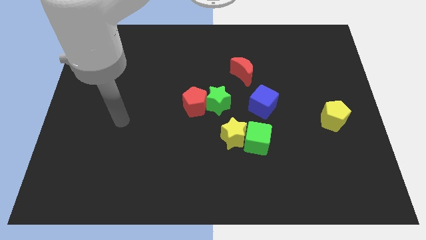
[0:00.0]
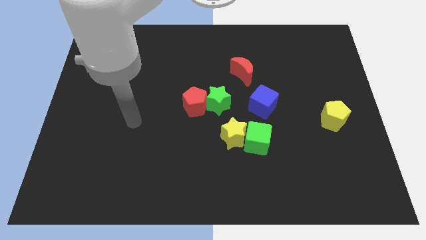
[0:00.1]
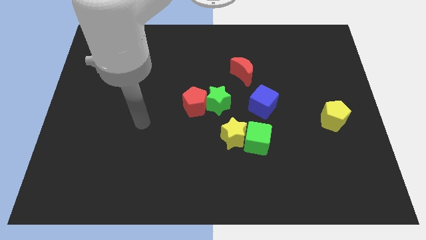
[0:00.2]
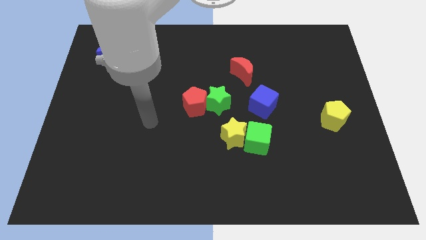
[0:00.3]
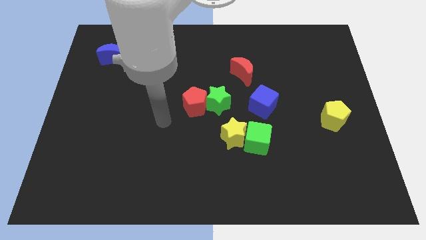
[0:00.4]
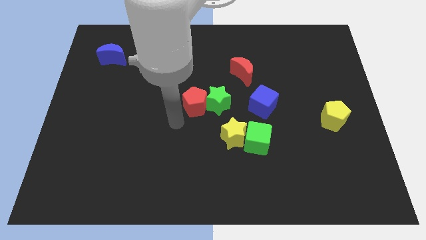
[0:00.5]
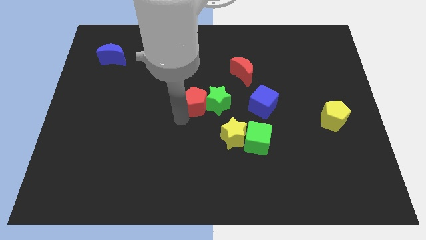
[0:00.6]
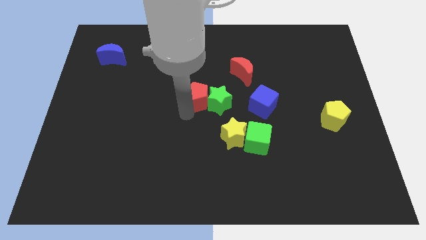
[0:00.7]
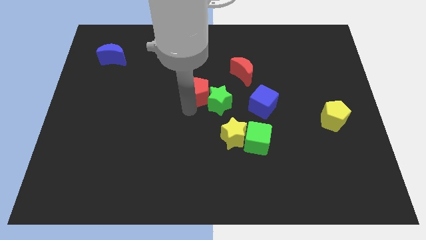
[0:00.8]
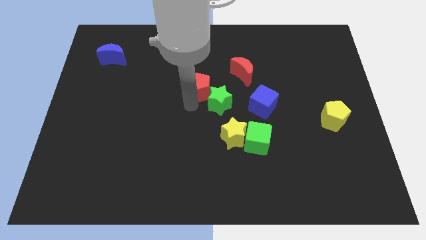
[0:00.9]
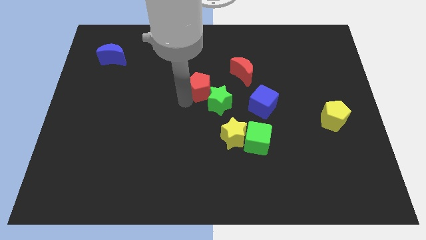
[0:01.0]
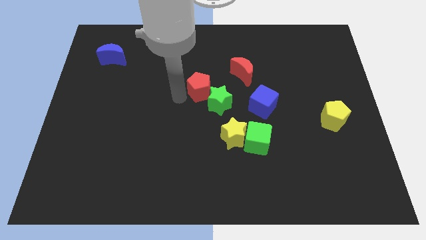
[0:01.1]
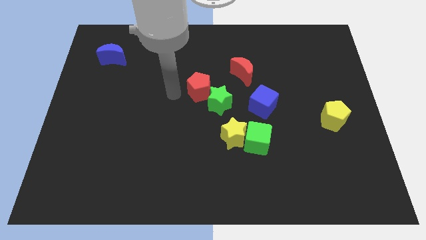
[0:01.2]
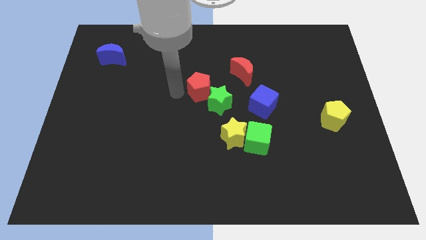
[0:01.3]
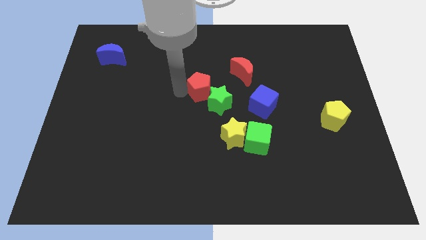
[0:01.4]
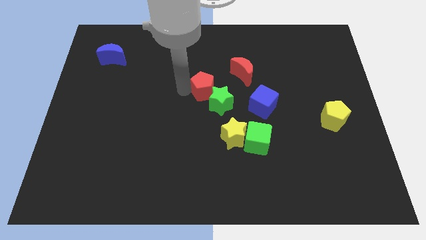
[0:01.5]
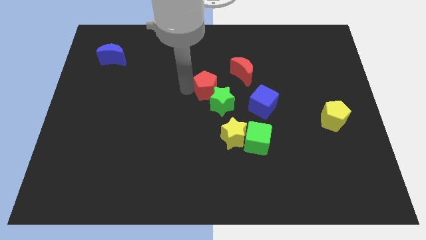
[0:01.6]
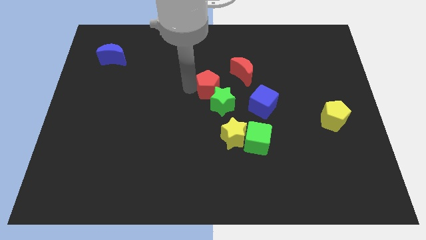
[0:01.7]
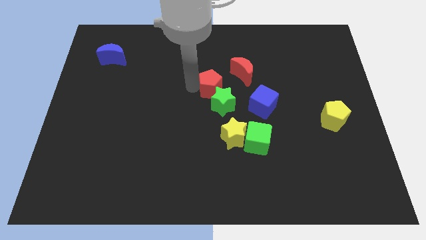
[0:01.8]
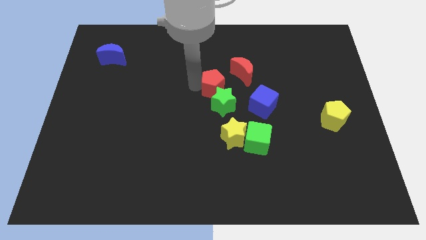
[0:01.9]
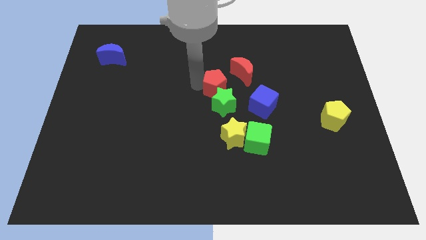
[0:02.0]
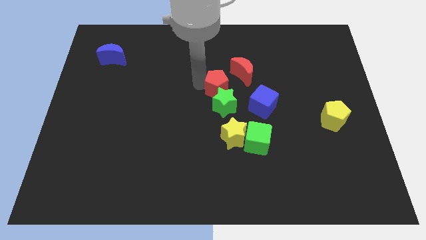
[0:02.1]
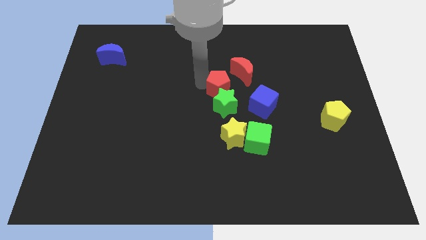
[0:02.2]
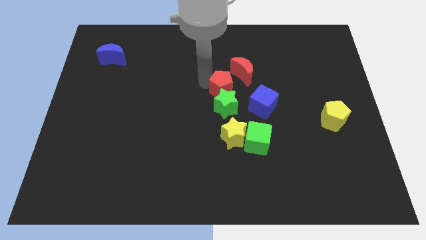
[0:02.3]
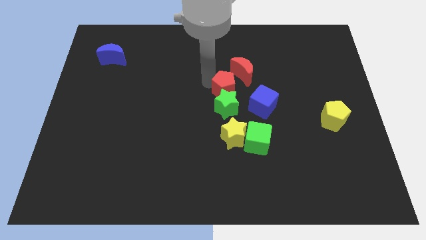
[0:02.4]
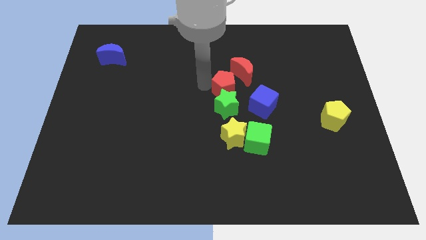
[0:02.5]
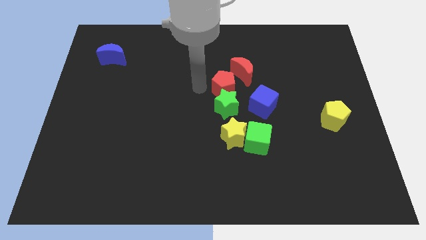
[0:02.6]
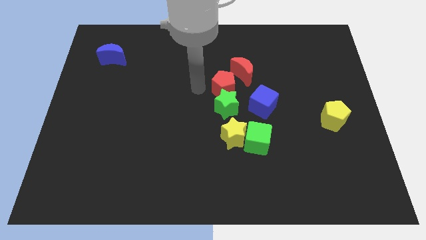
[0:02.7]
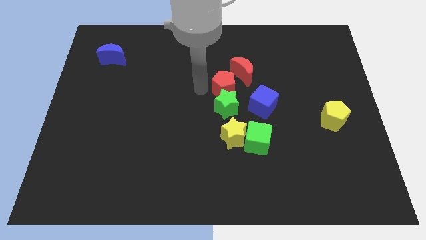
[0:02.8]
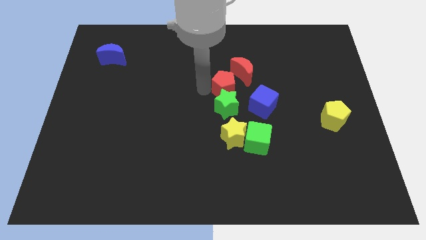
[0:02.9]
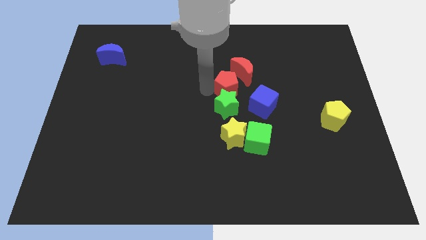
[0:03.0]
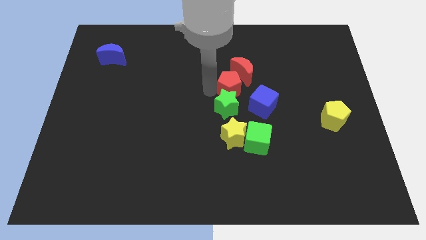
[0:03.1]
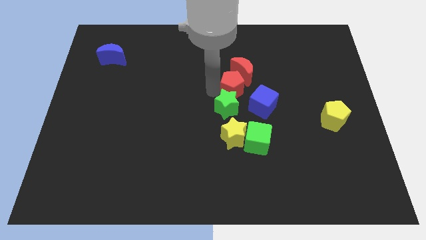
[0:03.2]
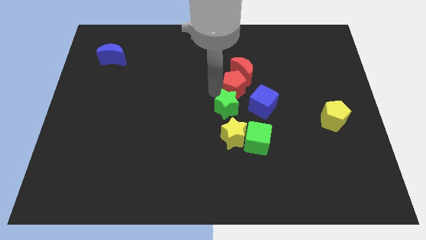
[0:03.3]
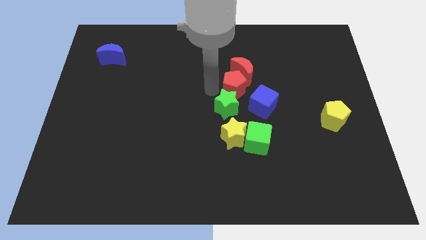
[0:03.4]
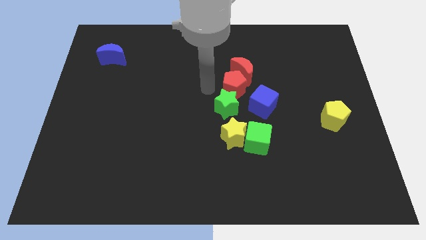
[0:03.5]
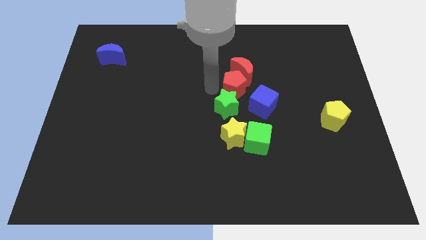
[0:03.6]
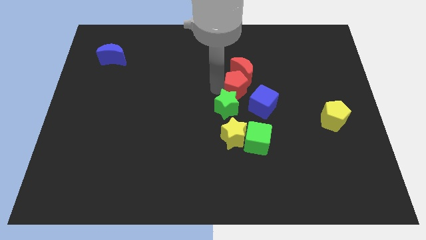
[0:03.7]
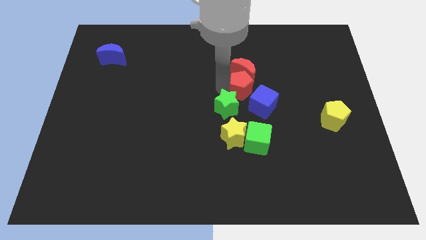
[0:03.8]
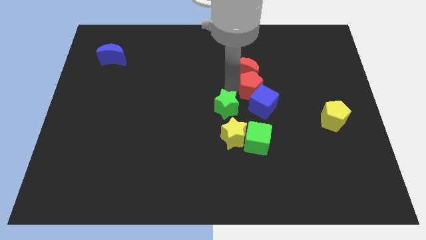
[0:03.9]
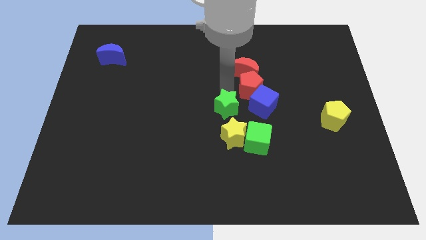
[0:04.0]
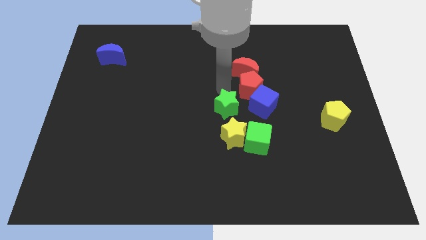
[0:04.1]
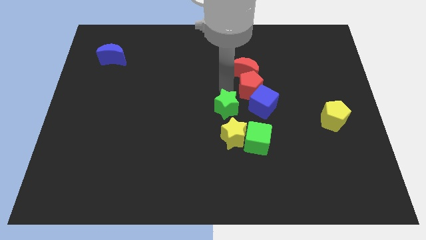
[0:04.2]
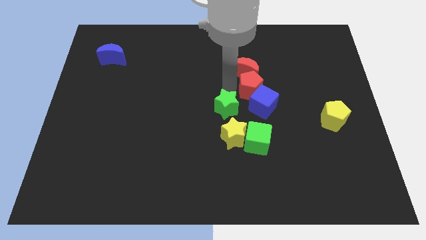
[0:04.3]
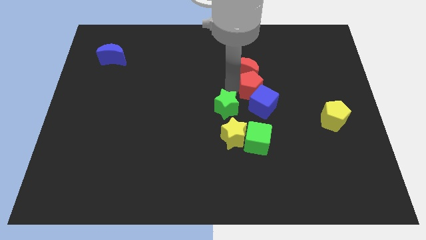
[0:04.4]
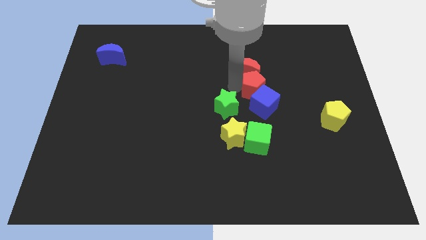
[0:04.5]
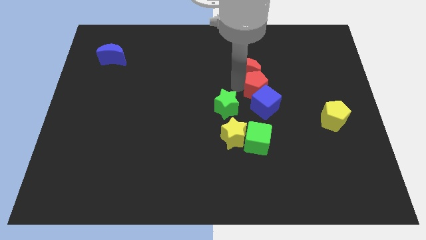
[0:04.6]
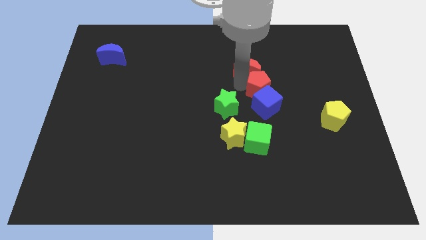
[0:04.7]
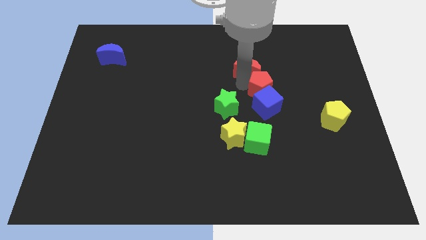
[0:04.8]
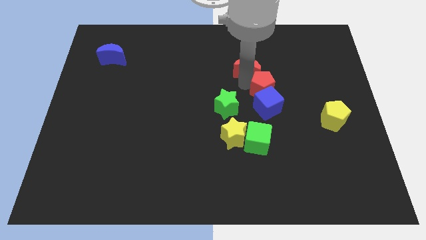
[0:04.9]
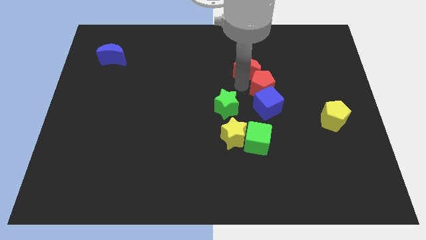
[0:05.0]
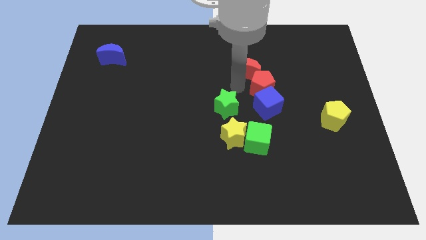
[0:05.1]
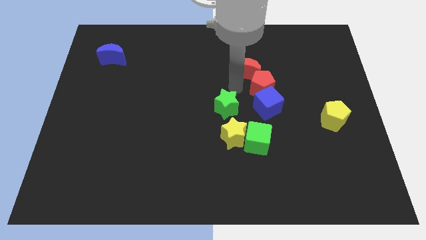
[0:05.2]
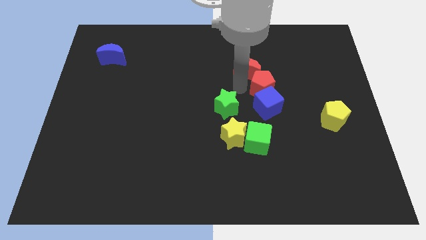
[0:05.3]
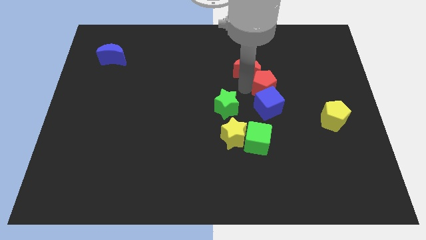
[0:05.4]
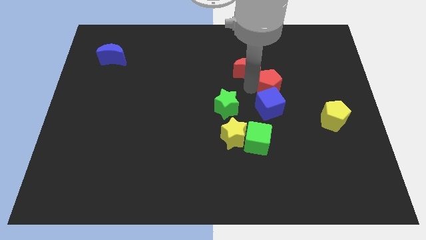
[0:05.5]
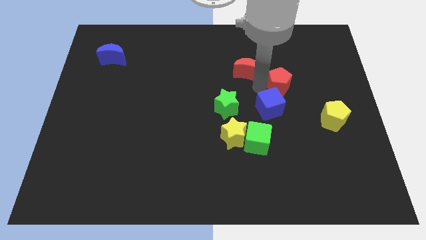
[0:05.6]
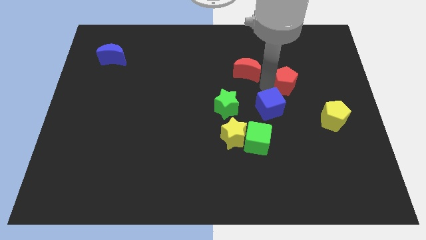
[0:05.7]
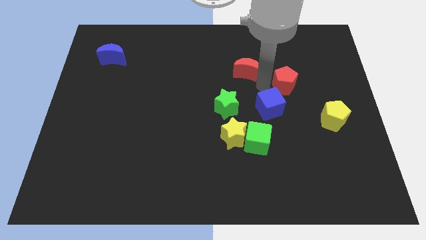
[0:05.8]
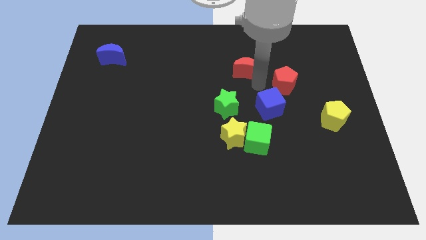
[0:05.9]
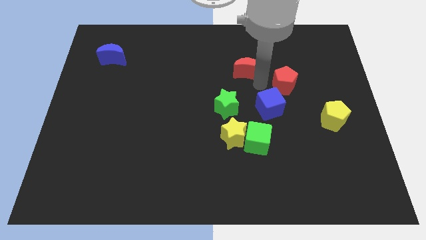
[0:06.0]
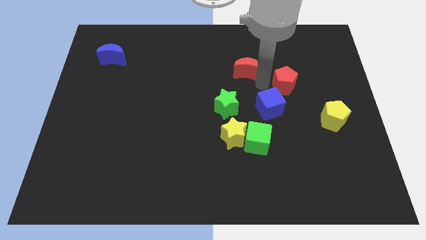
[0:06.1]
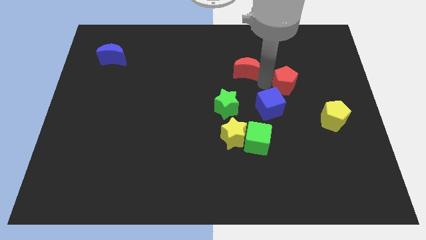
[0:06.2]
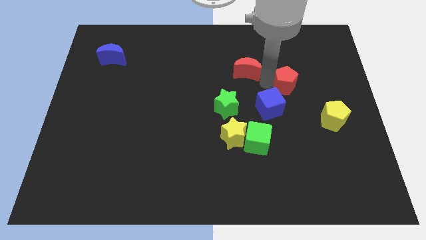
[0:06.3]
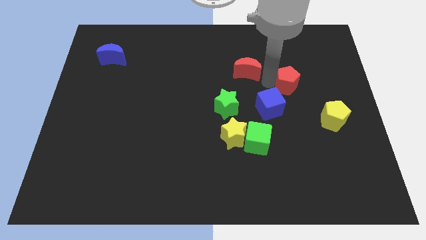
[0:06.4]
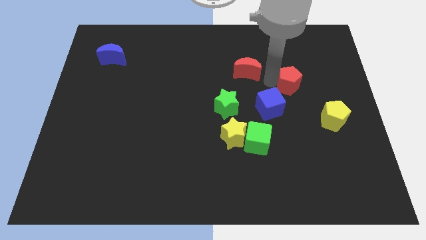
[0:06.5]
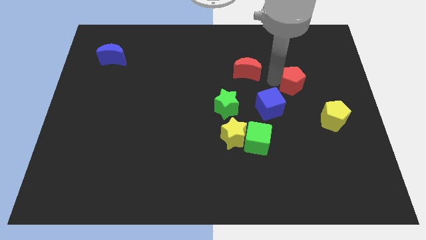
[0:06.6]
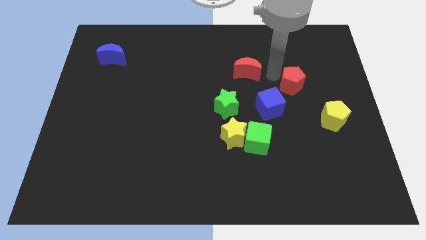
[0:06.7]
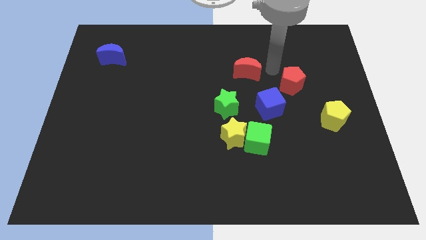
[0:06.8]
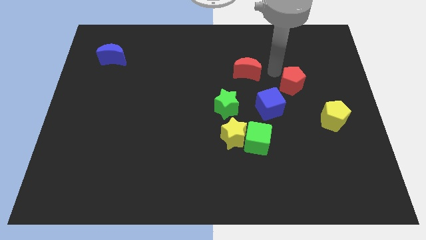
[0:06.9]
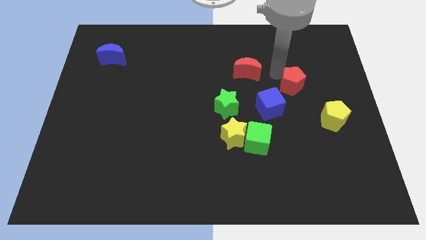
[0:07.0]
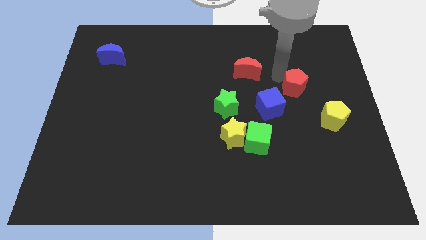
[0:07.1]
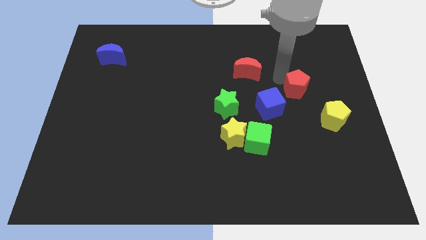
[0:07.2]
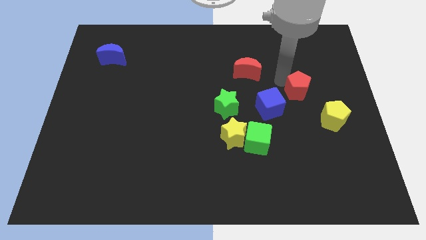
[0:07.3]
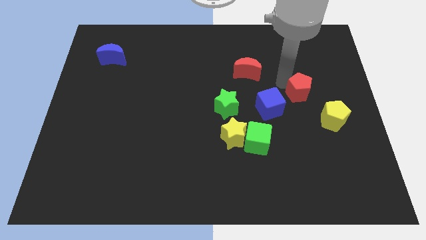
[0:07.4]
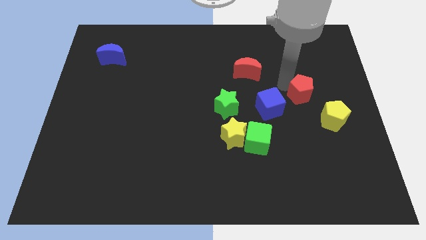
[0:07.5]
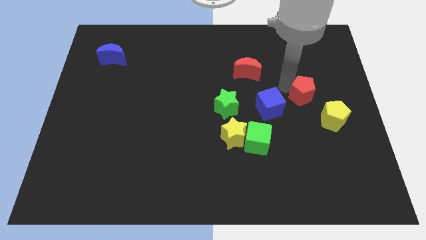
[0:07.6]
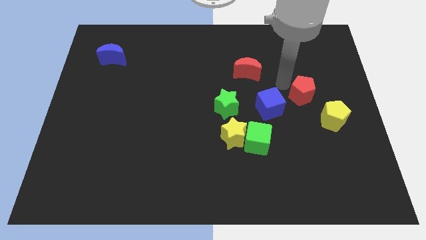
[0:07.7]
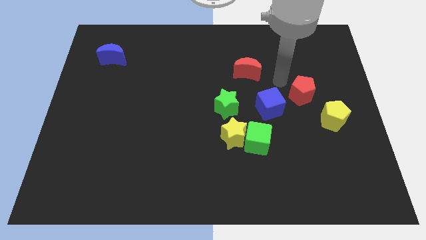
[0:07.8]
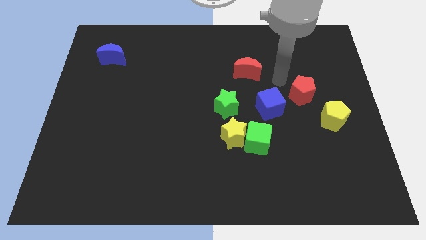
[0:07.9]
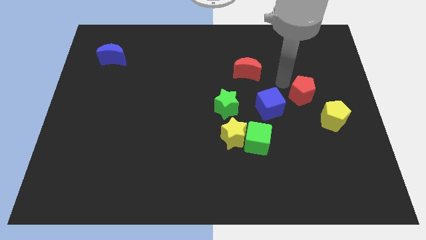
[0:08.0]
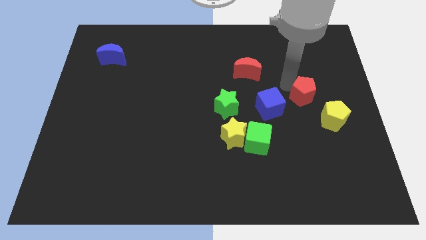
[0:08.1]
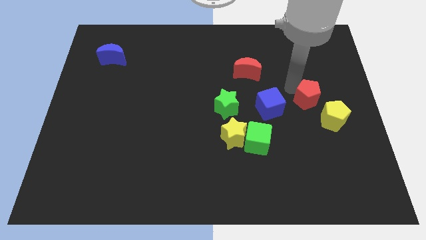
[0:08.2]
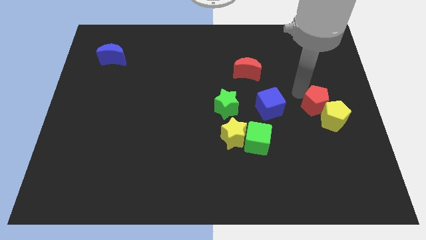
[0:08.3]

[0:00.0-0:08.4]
push the red pentagon towards the yellow pentagon
